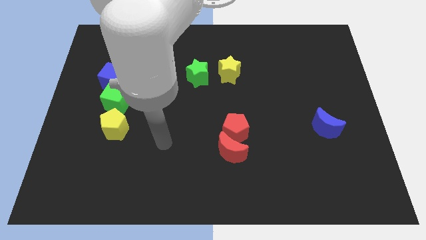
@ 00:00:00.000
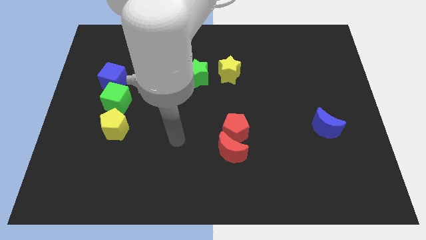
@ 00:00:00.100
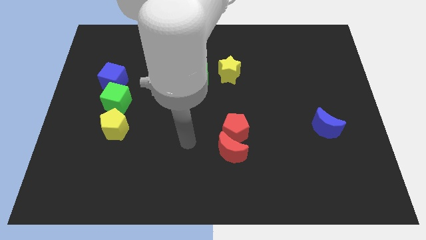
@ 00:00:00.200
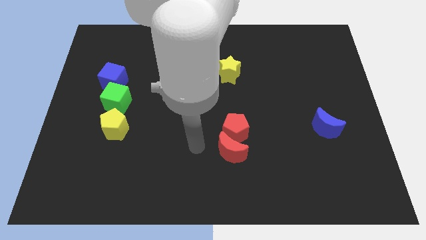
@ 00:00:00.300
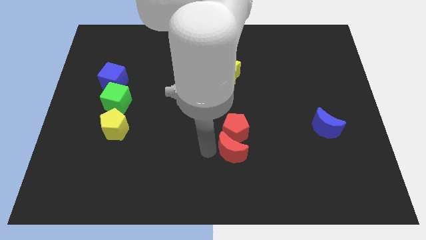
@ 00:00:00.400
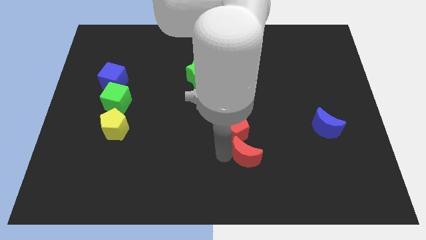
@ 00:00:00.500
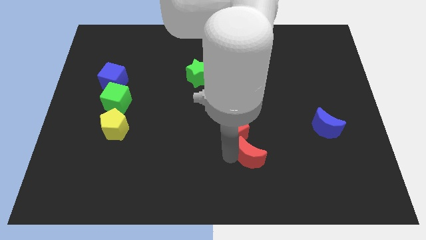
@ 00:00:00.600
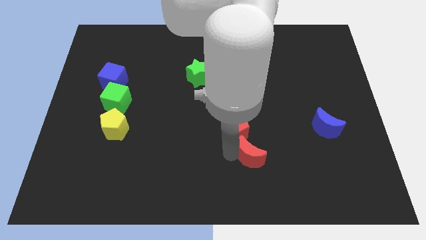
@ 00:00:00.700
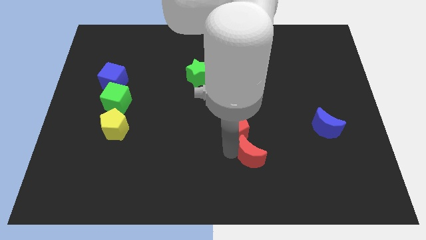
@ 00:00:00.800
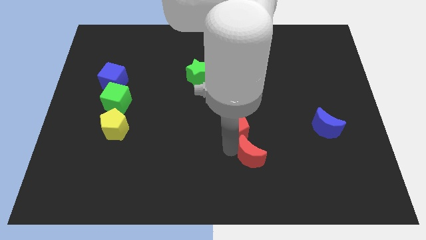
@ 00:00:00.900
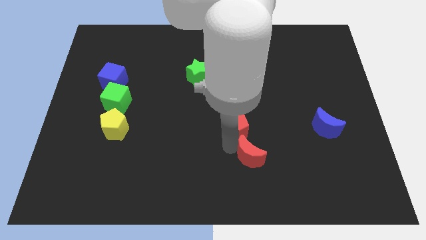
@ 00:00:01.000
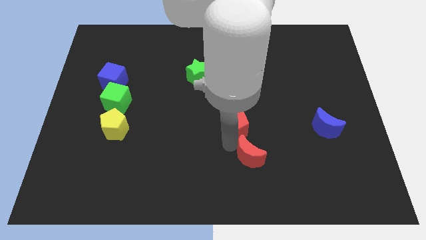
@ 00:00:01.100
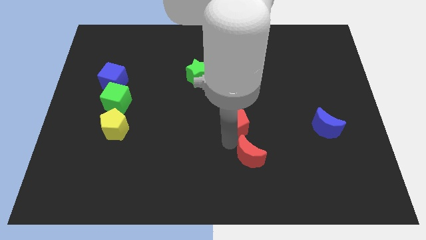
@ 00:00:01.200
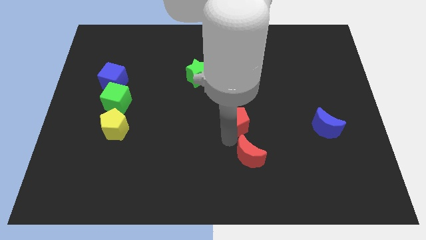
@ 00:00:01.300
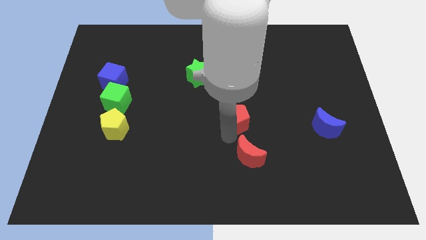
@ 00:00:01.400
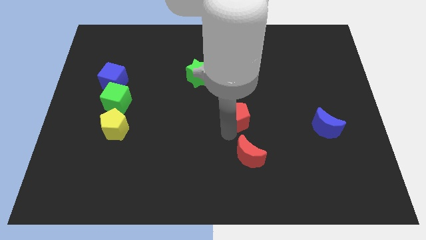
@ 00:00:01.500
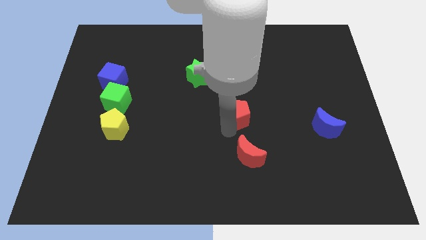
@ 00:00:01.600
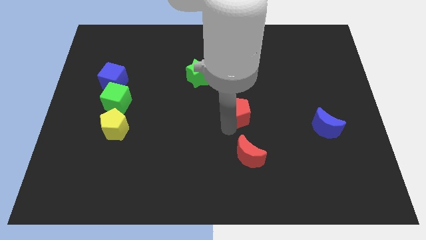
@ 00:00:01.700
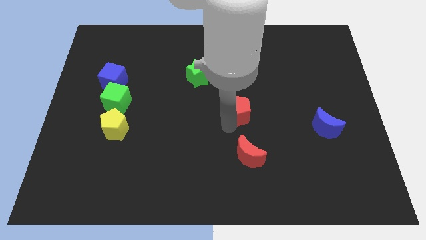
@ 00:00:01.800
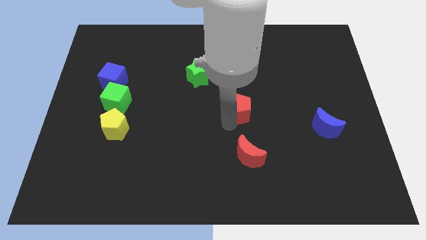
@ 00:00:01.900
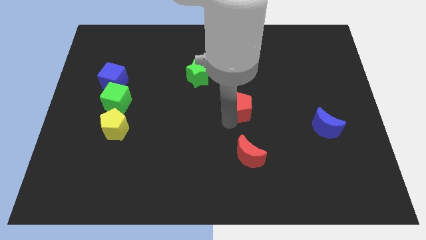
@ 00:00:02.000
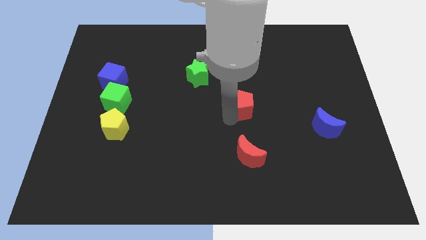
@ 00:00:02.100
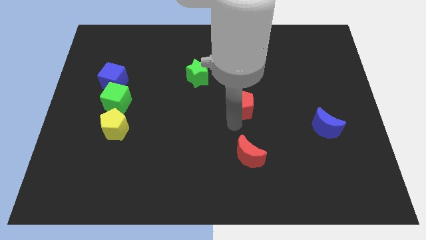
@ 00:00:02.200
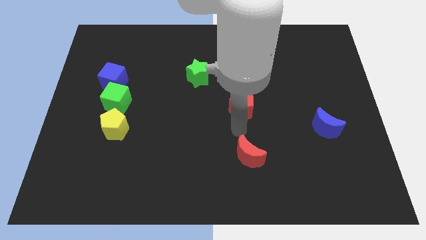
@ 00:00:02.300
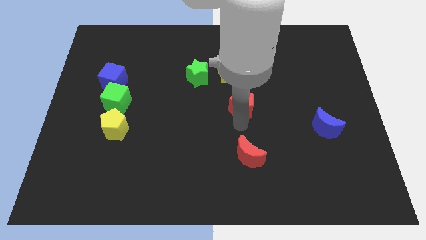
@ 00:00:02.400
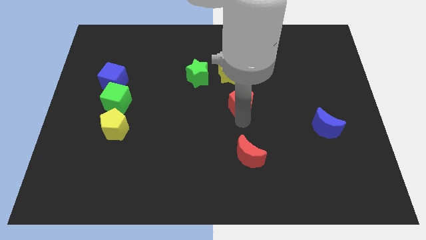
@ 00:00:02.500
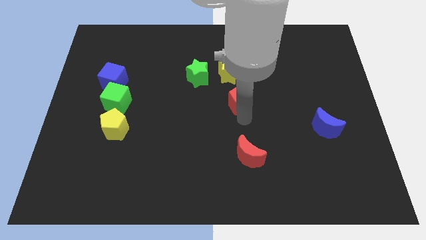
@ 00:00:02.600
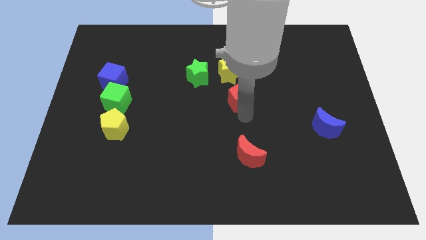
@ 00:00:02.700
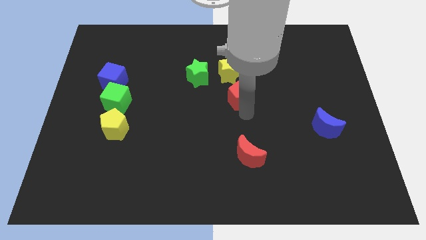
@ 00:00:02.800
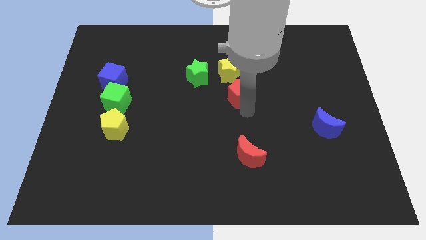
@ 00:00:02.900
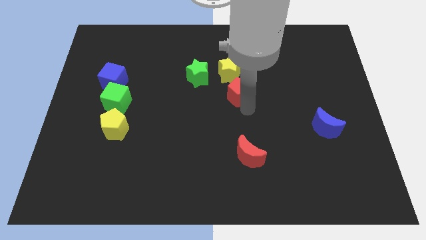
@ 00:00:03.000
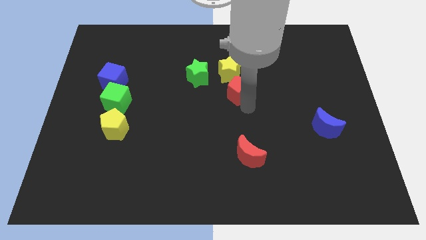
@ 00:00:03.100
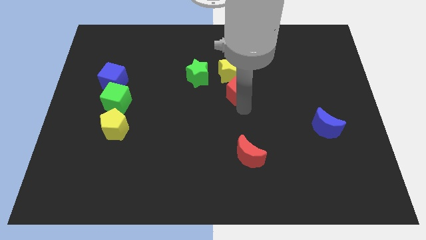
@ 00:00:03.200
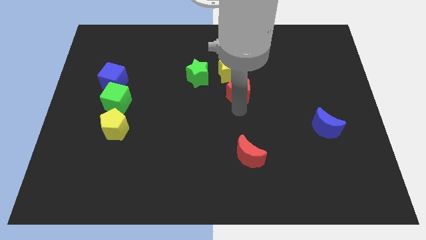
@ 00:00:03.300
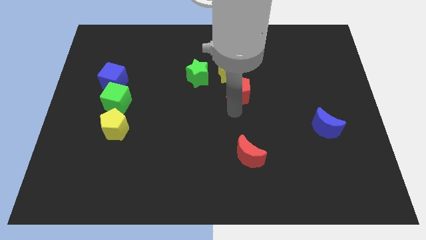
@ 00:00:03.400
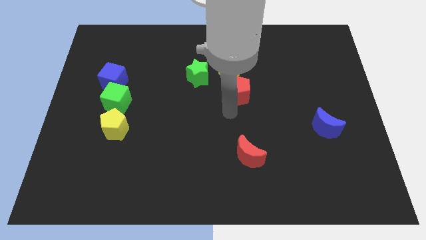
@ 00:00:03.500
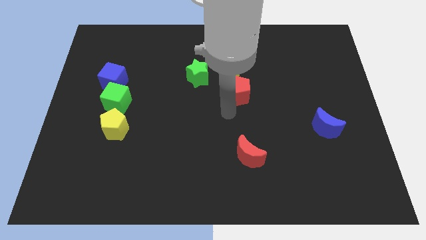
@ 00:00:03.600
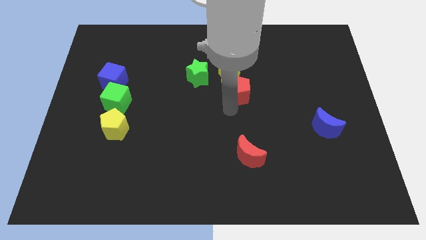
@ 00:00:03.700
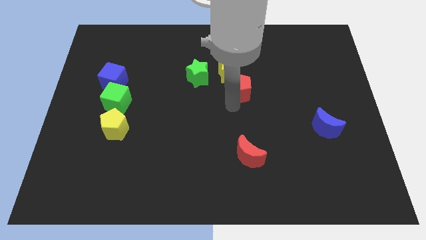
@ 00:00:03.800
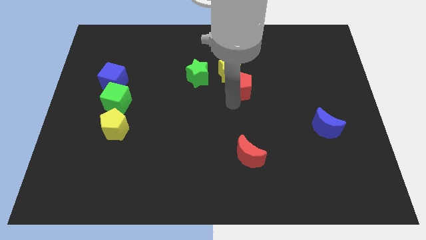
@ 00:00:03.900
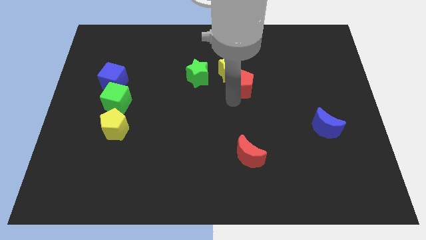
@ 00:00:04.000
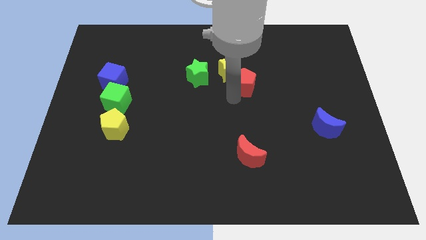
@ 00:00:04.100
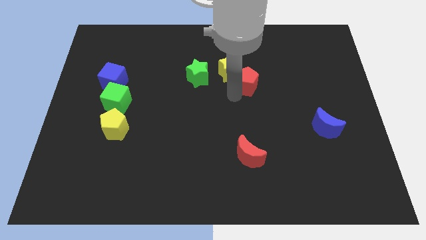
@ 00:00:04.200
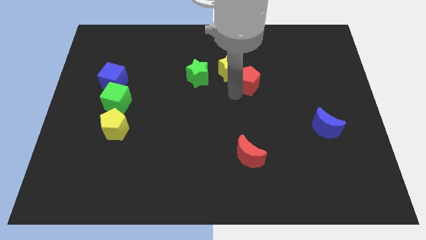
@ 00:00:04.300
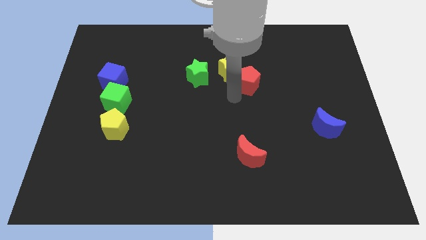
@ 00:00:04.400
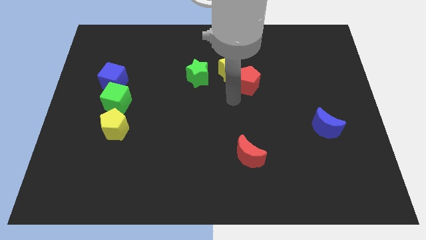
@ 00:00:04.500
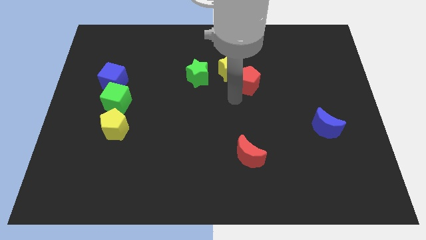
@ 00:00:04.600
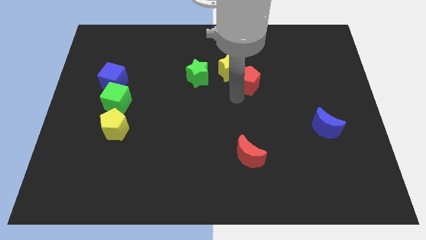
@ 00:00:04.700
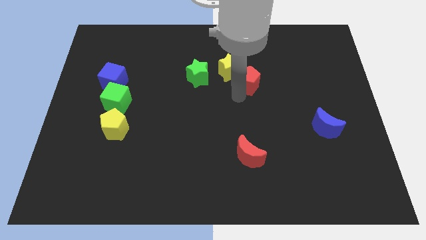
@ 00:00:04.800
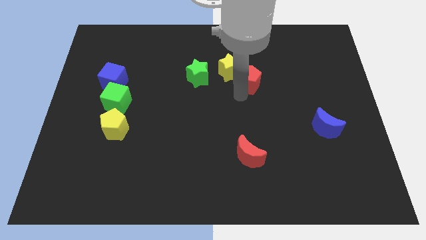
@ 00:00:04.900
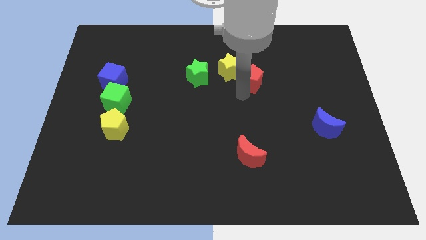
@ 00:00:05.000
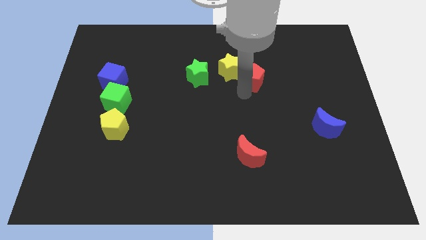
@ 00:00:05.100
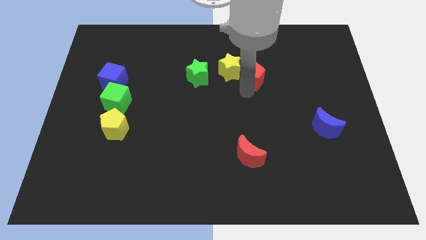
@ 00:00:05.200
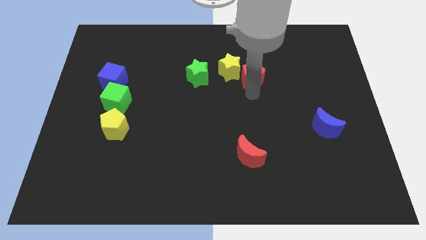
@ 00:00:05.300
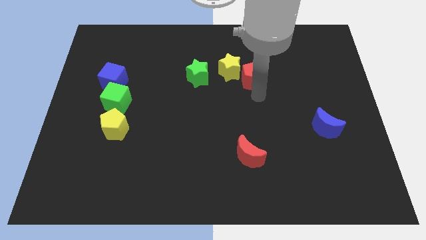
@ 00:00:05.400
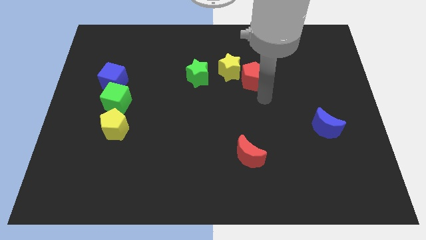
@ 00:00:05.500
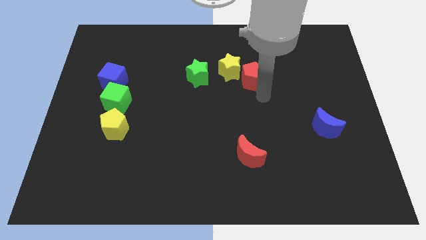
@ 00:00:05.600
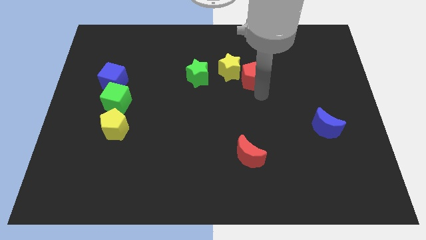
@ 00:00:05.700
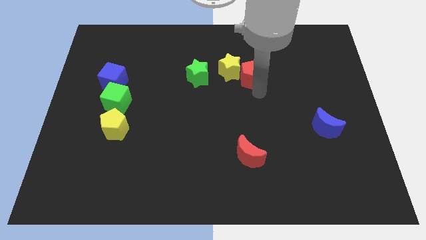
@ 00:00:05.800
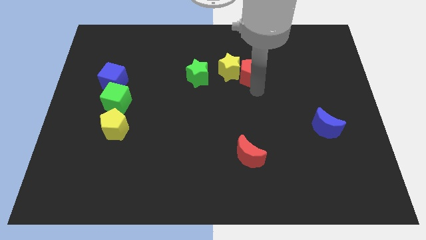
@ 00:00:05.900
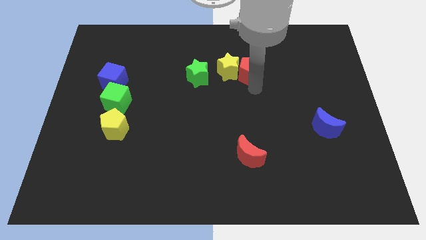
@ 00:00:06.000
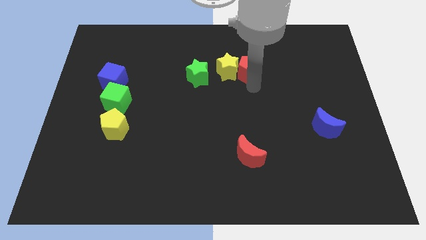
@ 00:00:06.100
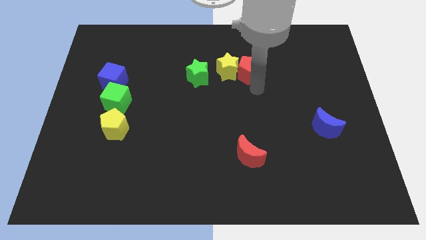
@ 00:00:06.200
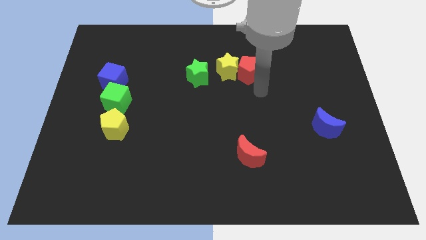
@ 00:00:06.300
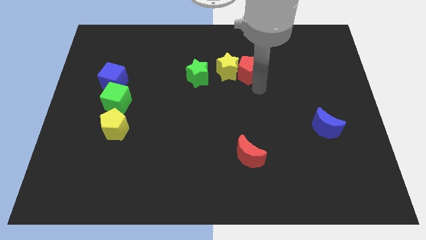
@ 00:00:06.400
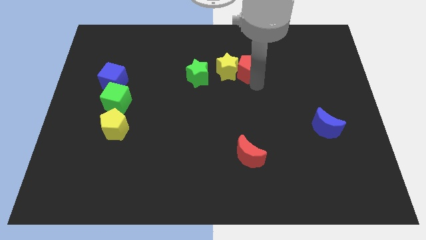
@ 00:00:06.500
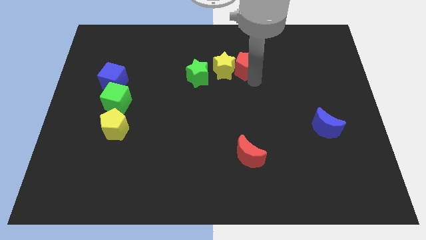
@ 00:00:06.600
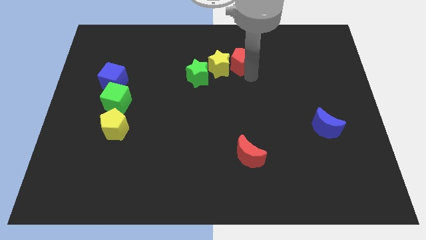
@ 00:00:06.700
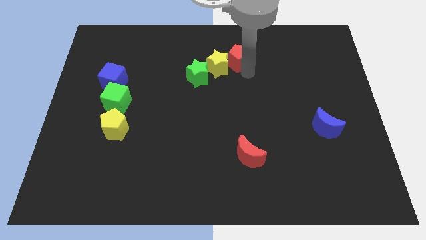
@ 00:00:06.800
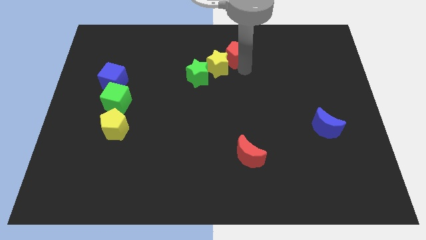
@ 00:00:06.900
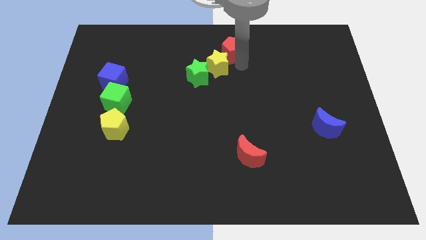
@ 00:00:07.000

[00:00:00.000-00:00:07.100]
slide the red pentagon to the top
